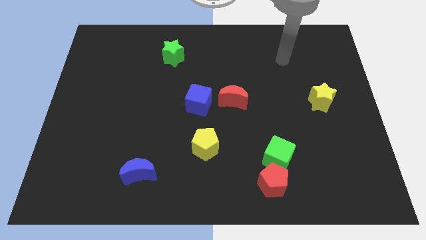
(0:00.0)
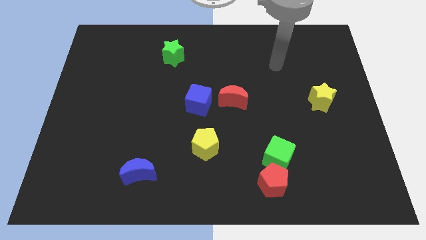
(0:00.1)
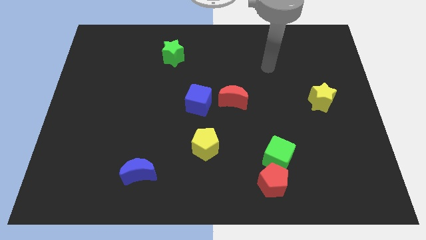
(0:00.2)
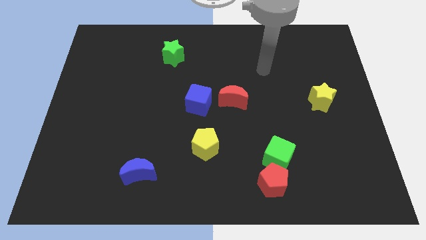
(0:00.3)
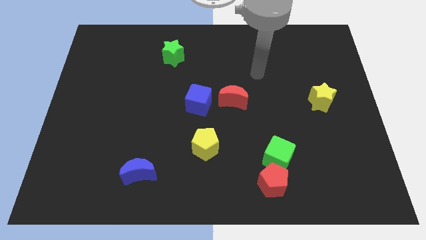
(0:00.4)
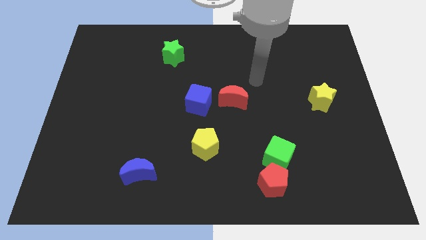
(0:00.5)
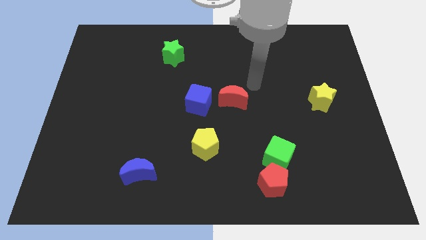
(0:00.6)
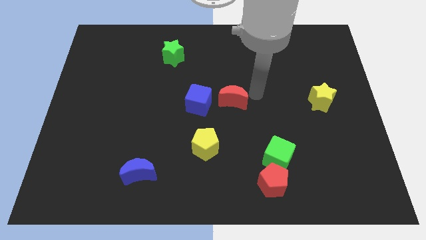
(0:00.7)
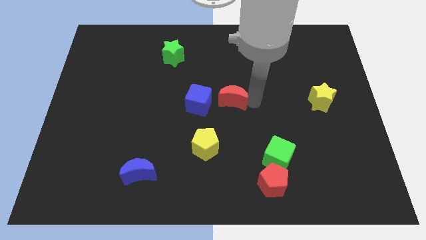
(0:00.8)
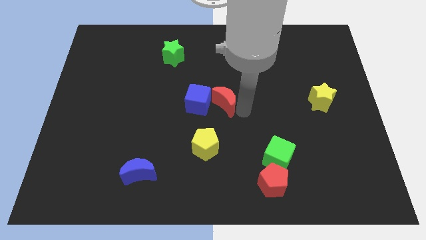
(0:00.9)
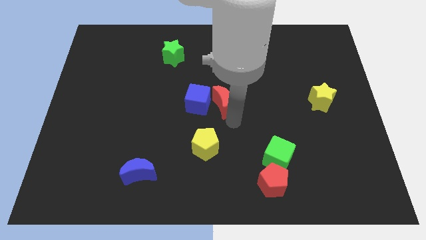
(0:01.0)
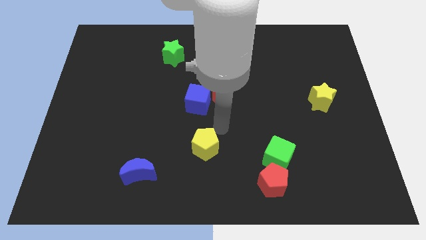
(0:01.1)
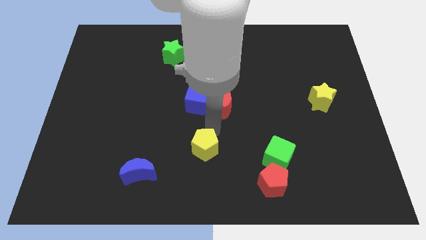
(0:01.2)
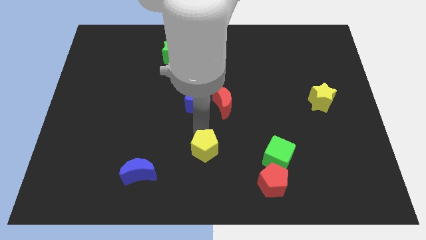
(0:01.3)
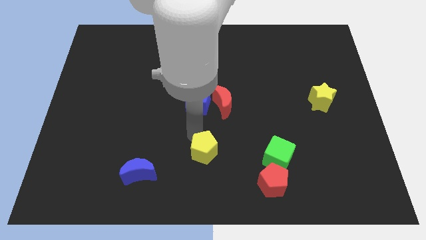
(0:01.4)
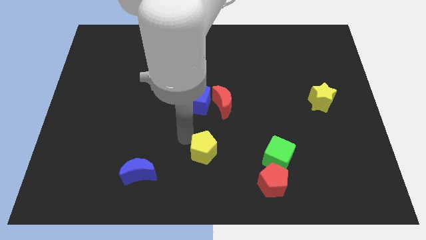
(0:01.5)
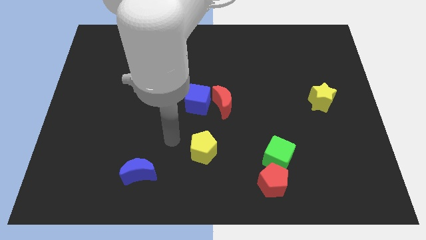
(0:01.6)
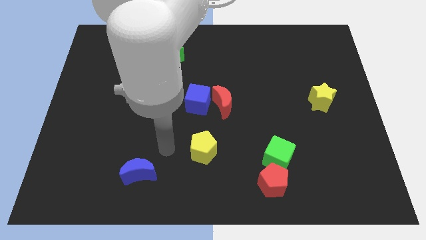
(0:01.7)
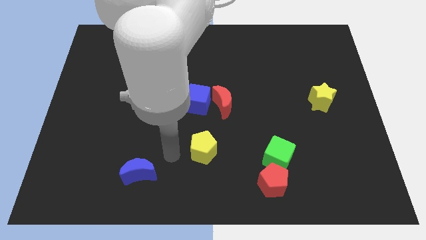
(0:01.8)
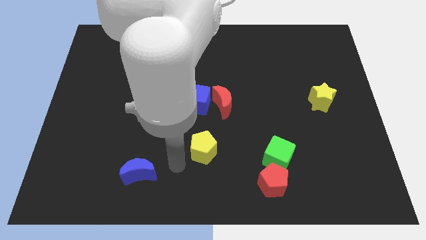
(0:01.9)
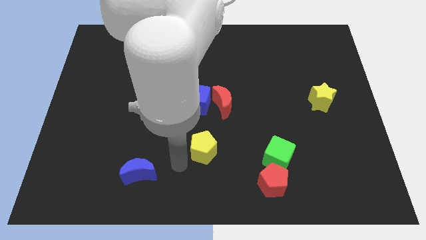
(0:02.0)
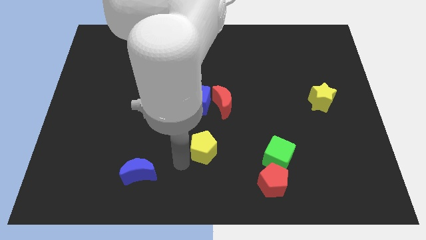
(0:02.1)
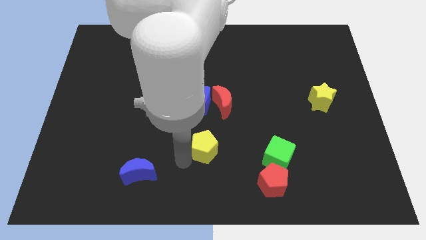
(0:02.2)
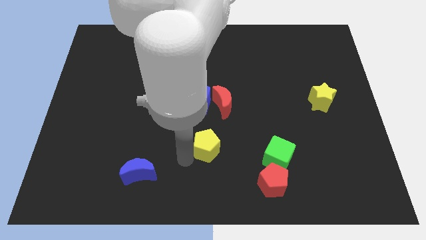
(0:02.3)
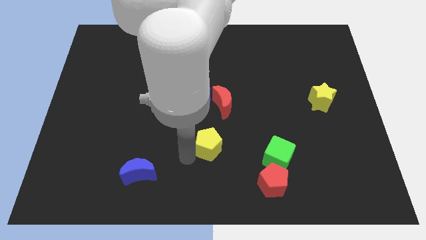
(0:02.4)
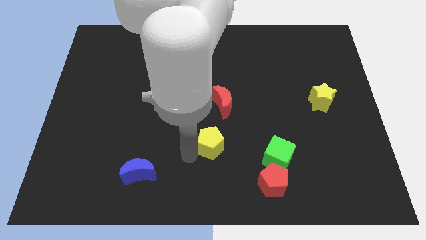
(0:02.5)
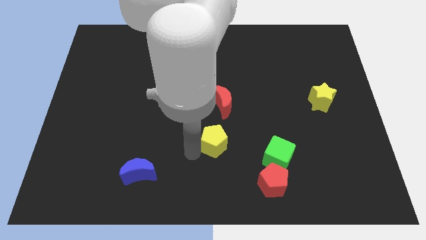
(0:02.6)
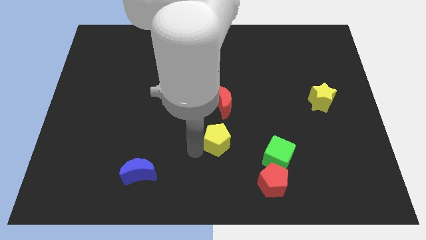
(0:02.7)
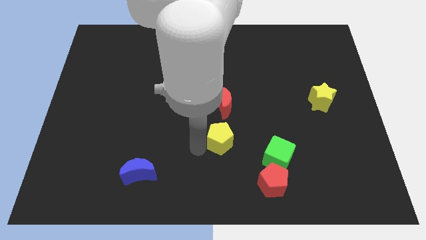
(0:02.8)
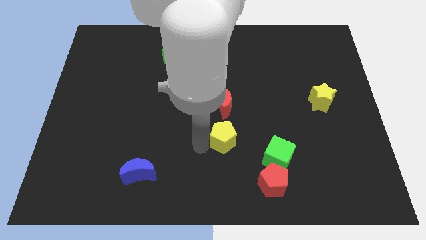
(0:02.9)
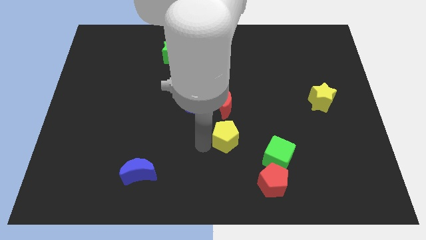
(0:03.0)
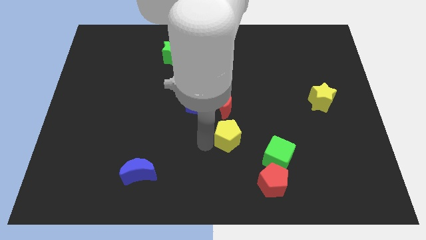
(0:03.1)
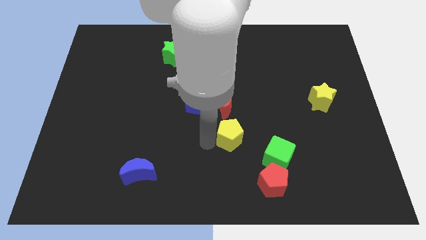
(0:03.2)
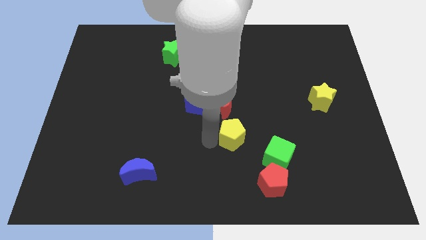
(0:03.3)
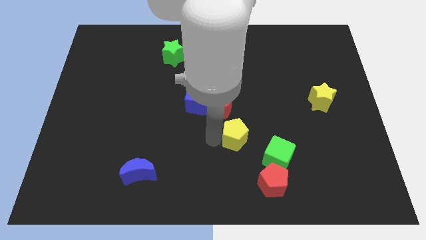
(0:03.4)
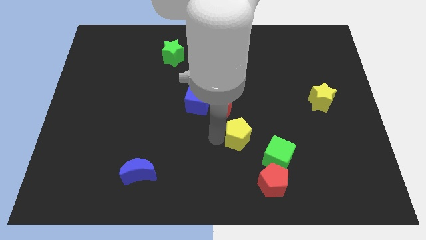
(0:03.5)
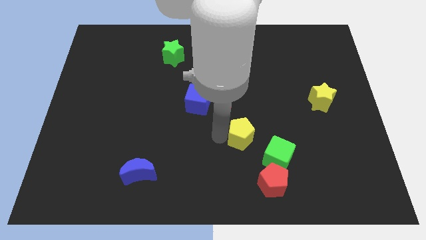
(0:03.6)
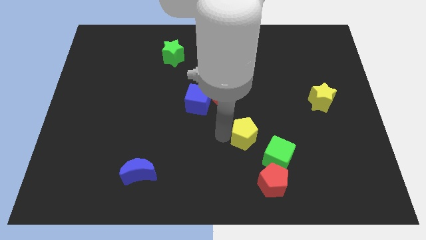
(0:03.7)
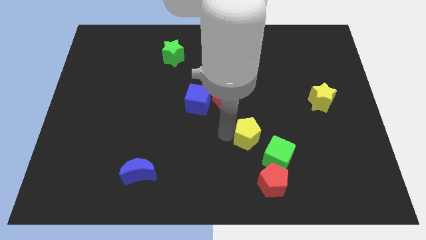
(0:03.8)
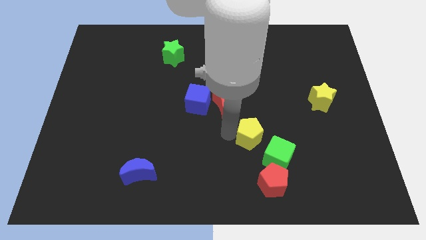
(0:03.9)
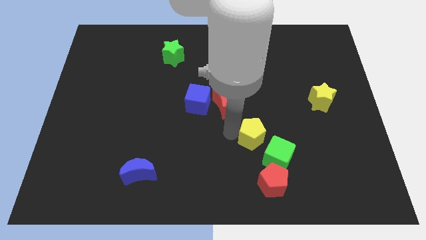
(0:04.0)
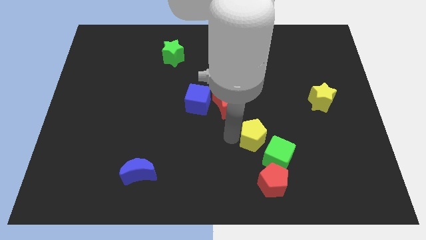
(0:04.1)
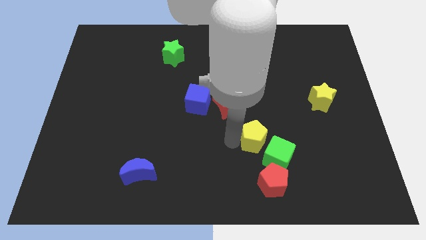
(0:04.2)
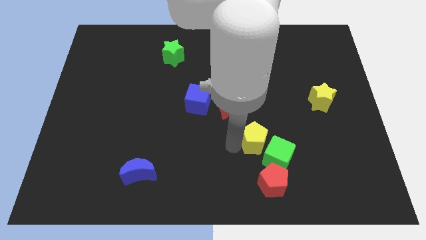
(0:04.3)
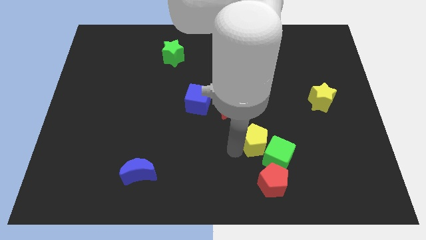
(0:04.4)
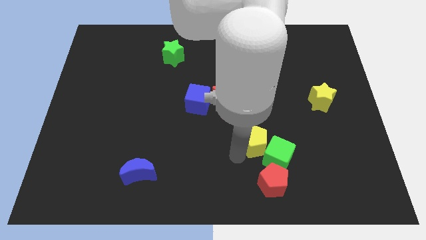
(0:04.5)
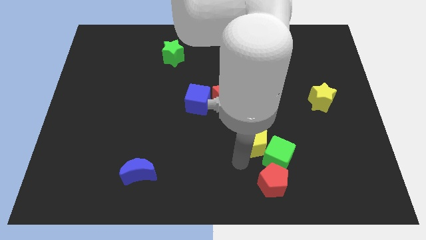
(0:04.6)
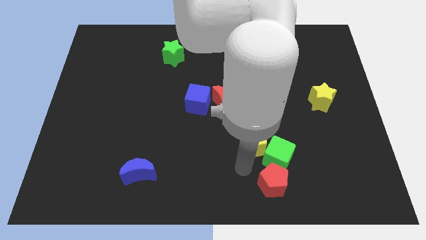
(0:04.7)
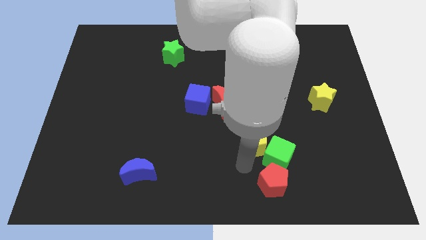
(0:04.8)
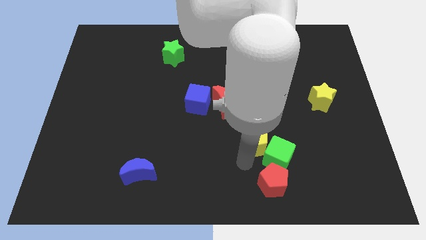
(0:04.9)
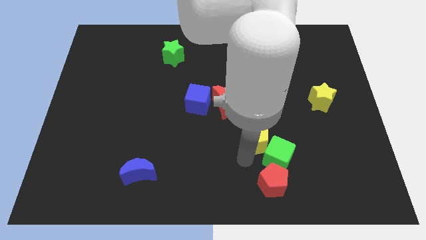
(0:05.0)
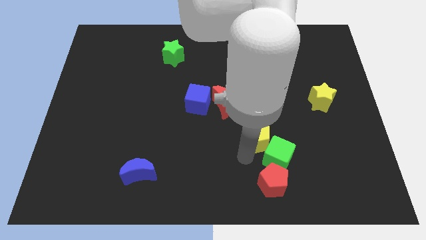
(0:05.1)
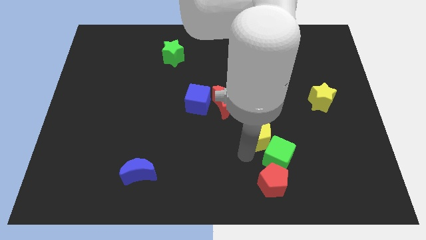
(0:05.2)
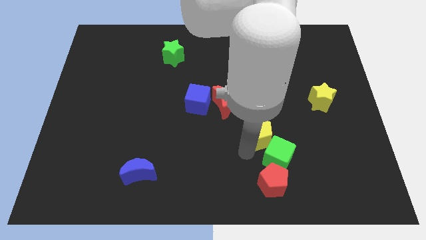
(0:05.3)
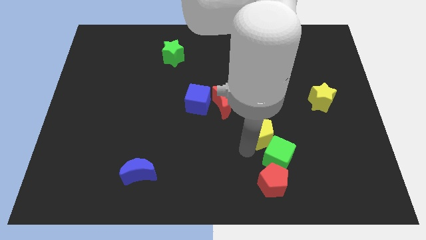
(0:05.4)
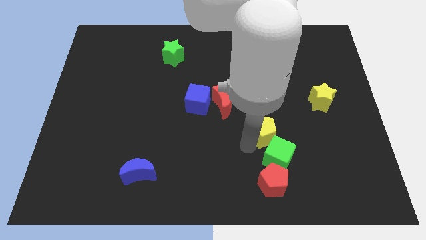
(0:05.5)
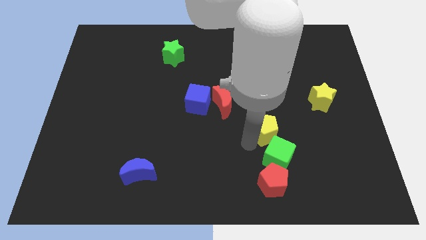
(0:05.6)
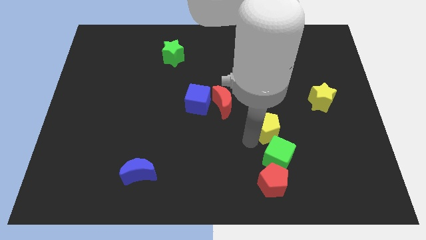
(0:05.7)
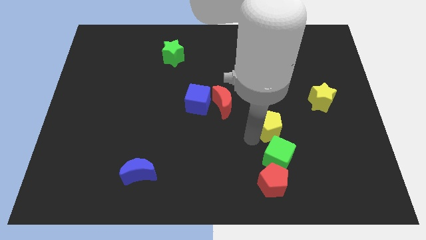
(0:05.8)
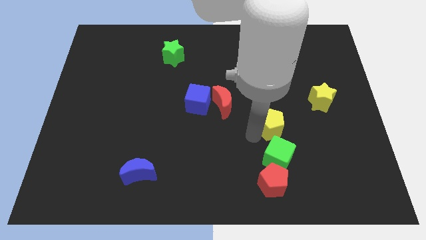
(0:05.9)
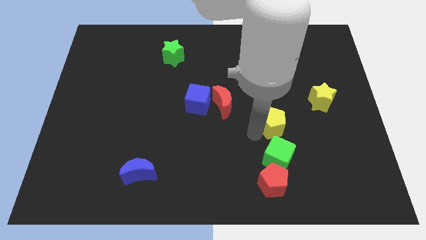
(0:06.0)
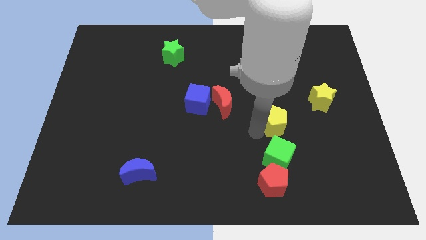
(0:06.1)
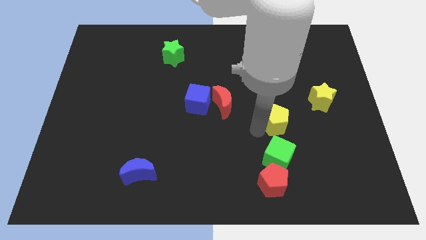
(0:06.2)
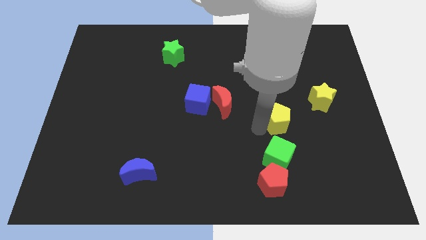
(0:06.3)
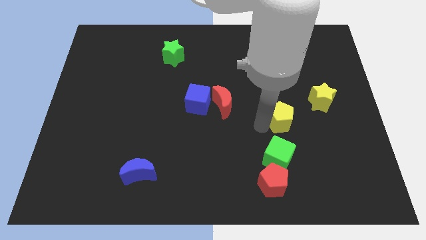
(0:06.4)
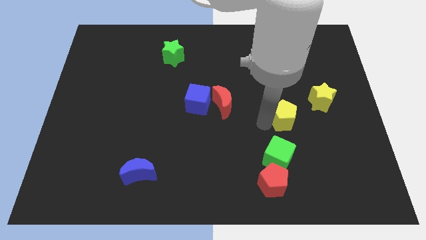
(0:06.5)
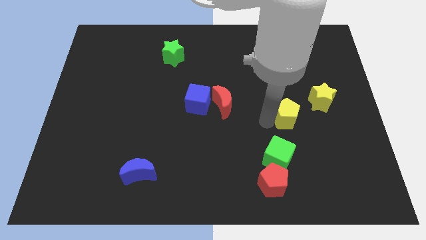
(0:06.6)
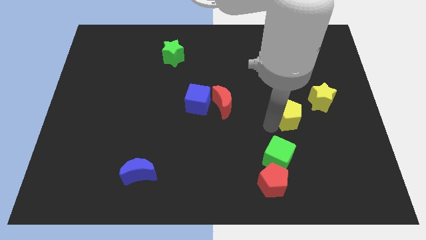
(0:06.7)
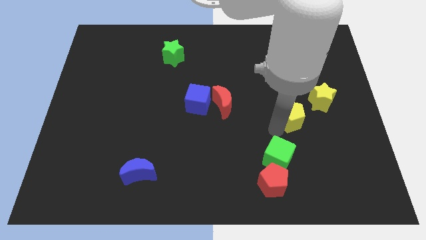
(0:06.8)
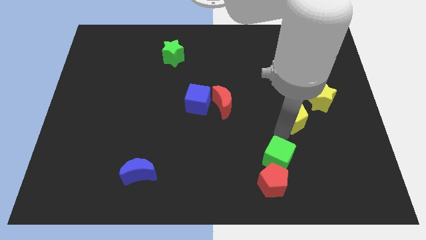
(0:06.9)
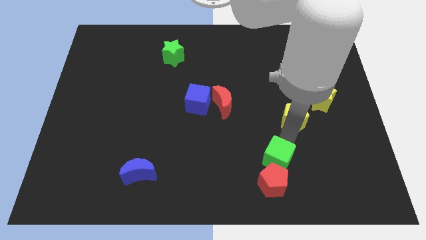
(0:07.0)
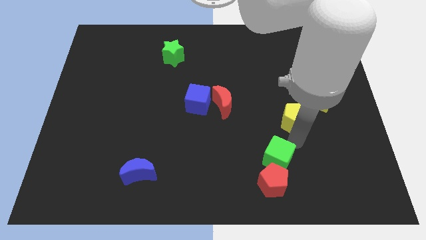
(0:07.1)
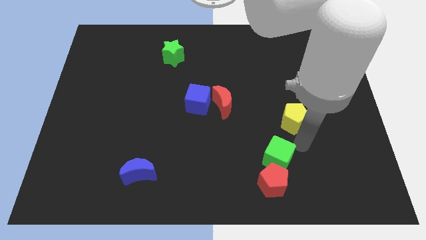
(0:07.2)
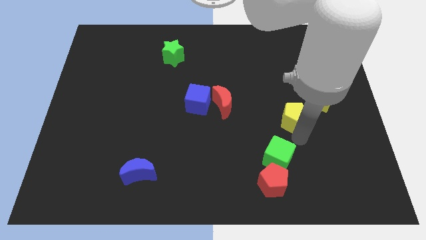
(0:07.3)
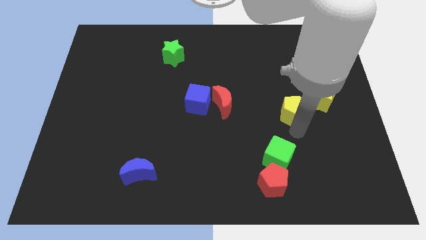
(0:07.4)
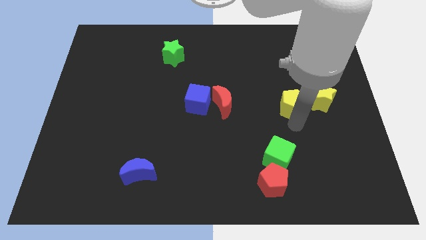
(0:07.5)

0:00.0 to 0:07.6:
move the yellow pentagon up and to the right diagonally
